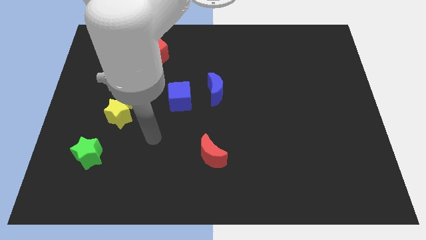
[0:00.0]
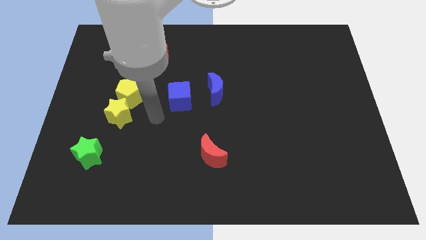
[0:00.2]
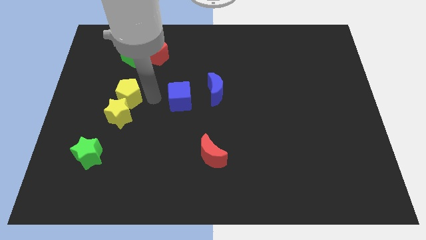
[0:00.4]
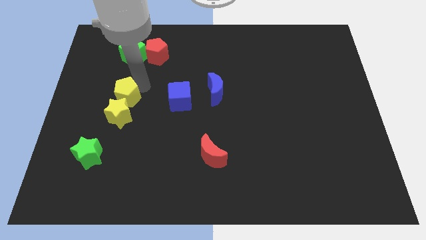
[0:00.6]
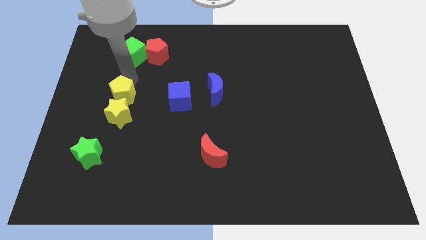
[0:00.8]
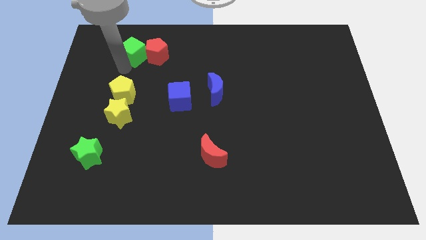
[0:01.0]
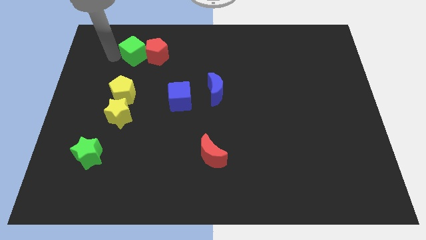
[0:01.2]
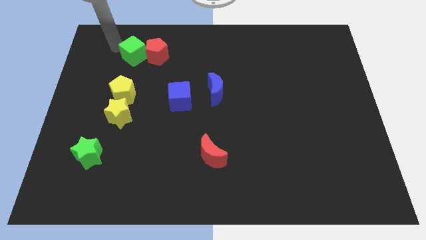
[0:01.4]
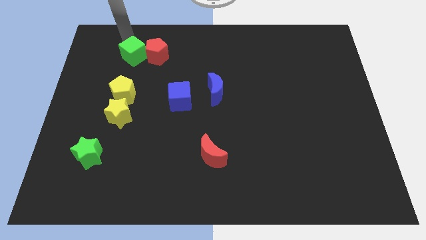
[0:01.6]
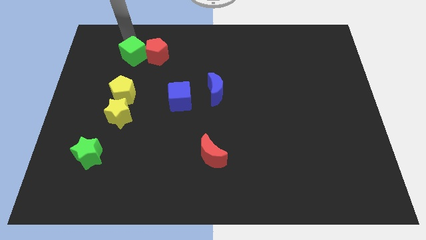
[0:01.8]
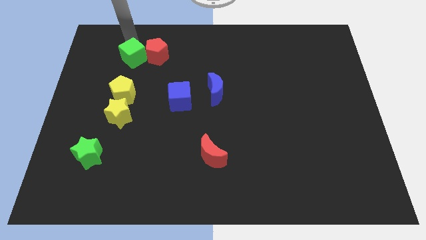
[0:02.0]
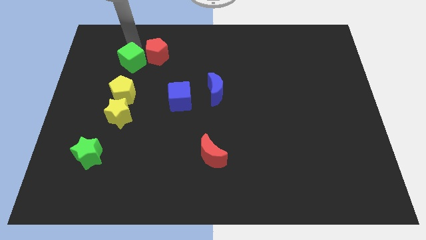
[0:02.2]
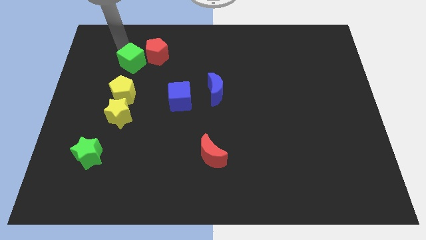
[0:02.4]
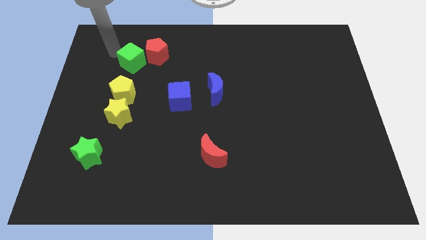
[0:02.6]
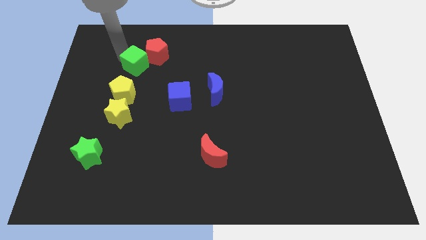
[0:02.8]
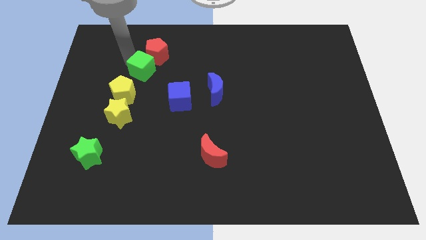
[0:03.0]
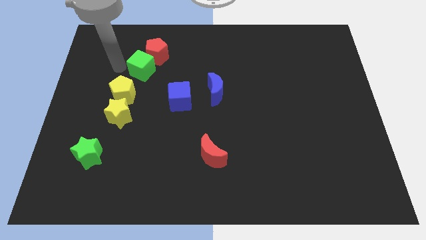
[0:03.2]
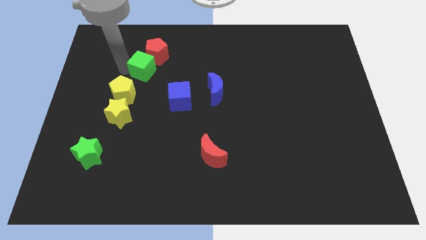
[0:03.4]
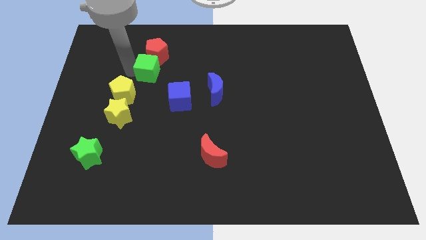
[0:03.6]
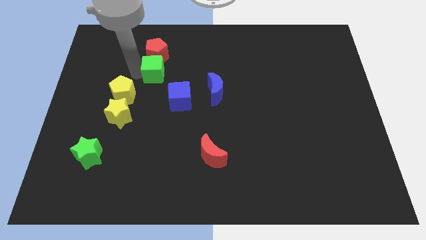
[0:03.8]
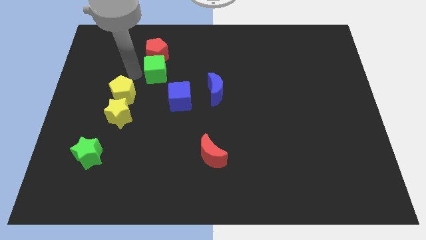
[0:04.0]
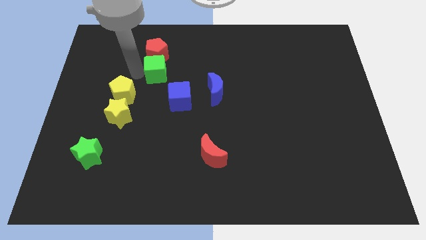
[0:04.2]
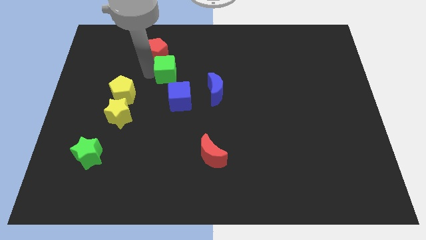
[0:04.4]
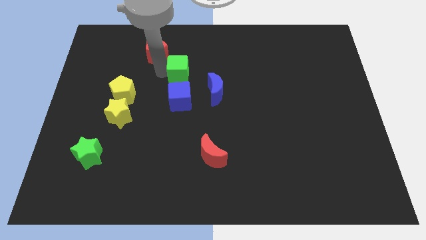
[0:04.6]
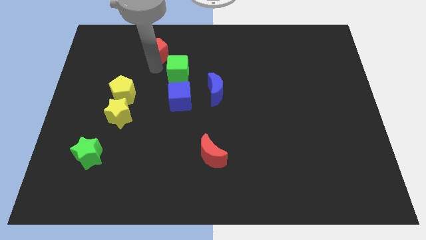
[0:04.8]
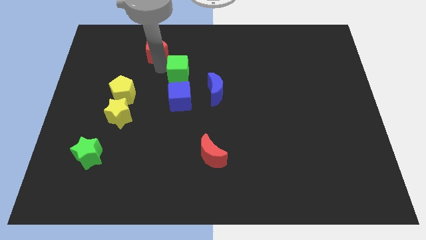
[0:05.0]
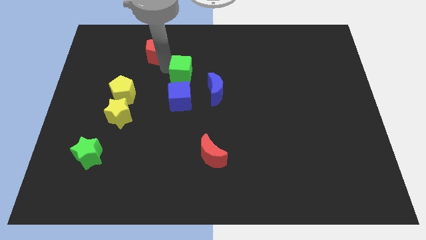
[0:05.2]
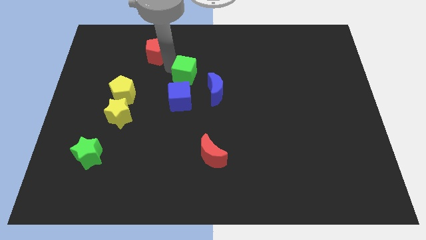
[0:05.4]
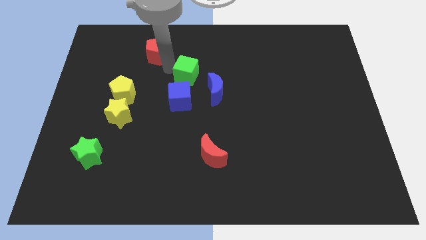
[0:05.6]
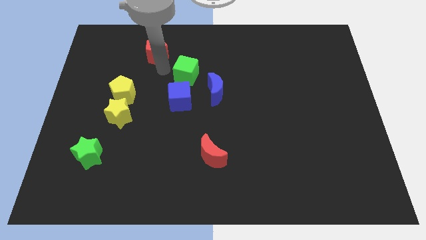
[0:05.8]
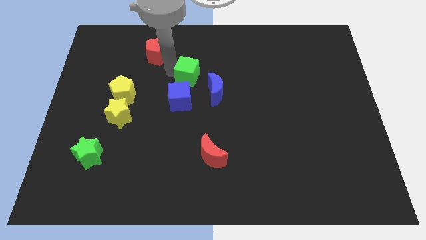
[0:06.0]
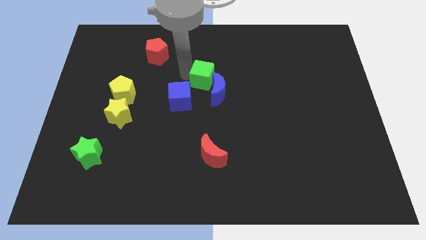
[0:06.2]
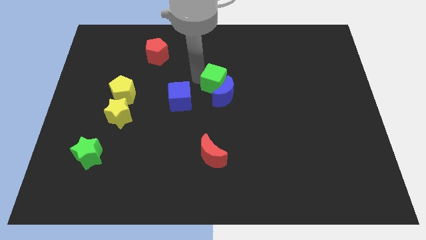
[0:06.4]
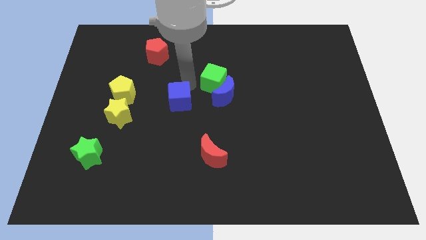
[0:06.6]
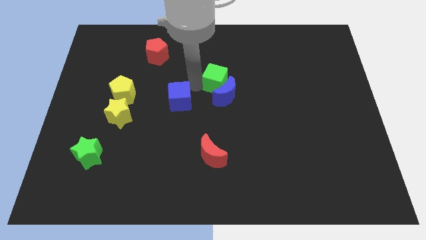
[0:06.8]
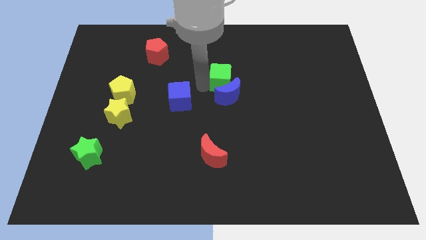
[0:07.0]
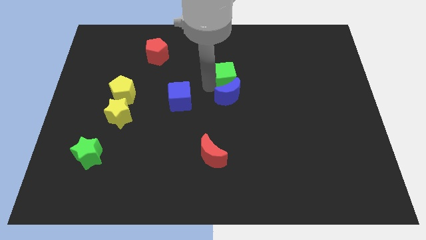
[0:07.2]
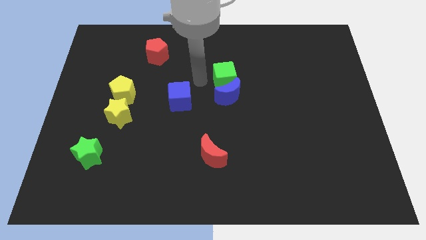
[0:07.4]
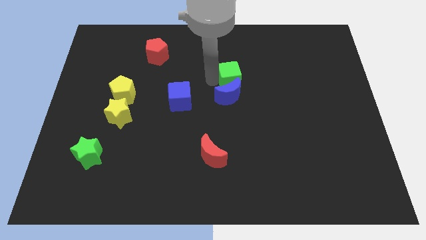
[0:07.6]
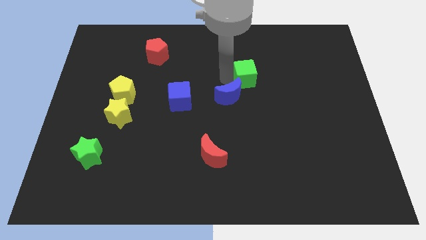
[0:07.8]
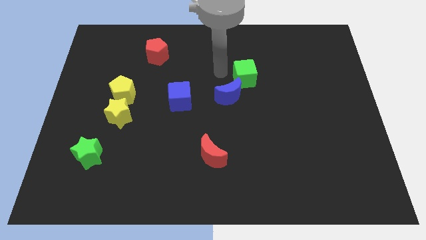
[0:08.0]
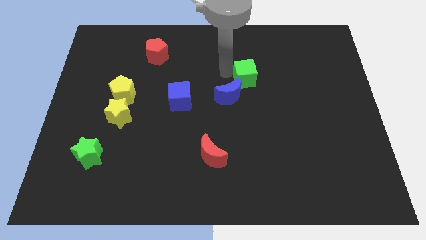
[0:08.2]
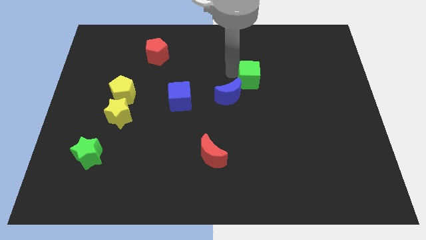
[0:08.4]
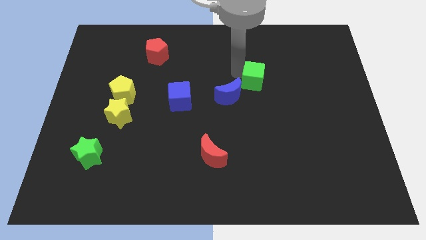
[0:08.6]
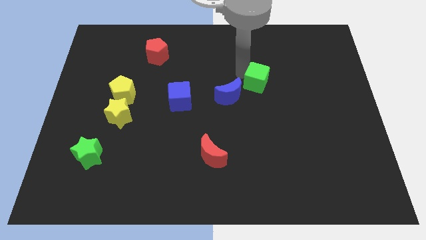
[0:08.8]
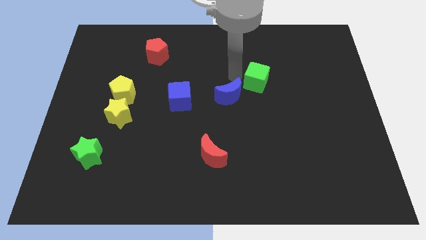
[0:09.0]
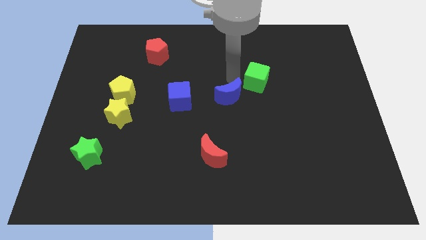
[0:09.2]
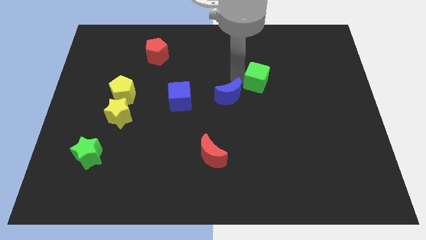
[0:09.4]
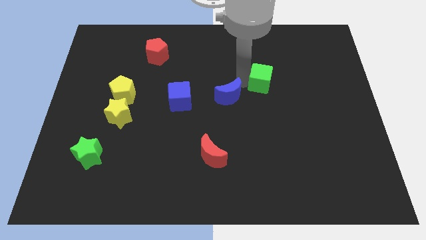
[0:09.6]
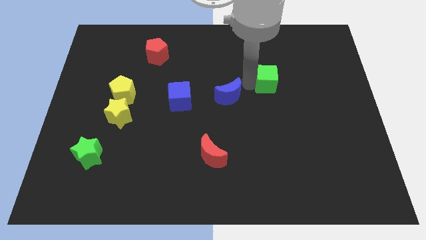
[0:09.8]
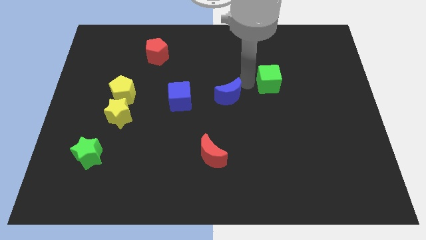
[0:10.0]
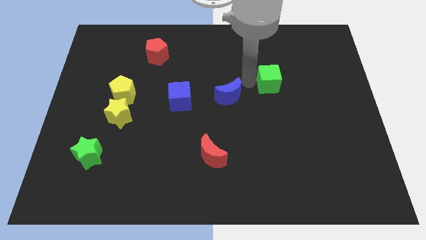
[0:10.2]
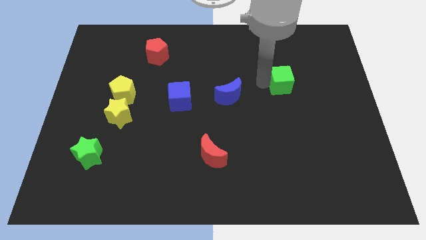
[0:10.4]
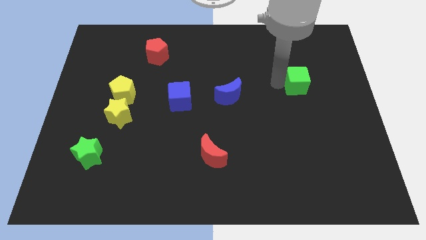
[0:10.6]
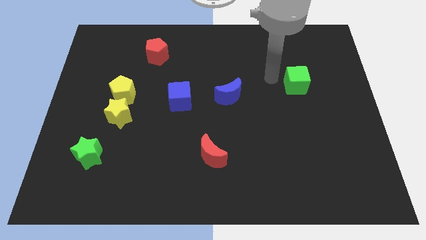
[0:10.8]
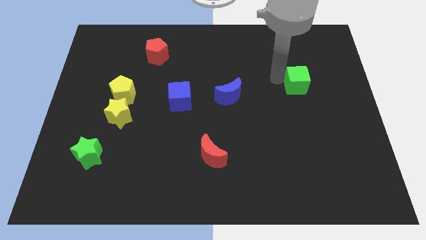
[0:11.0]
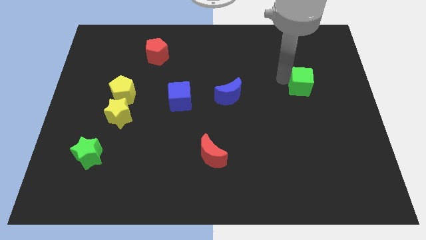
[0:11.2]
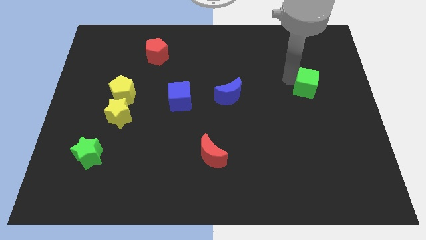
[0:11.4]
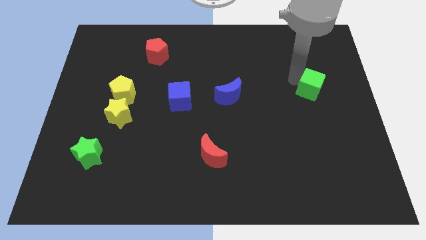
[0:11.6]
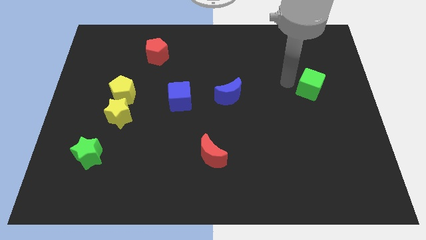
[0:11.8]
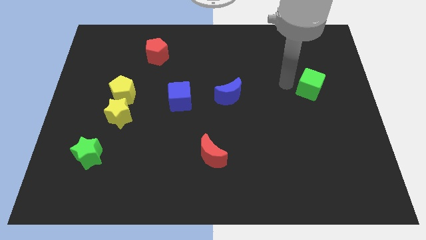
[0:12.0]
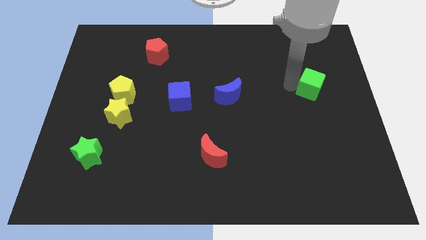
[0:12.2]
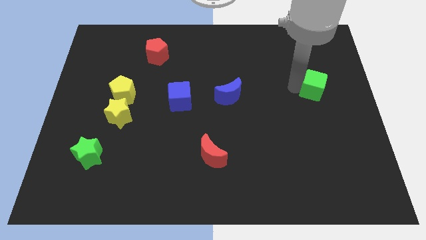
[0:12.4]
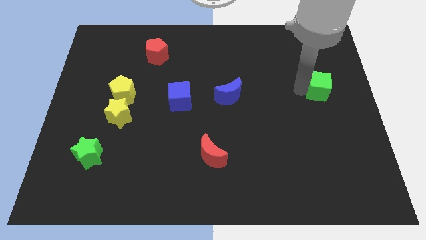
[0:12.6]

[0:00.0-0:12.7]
put the green cube to the center right
